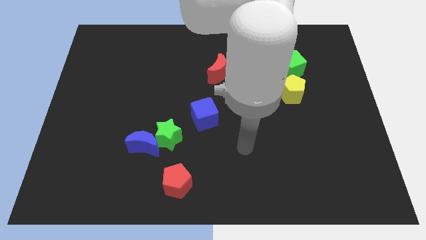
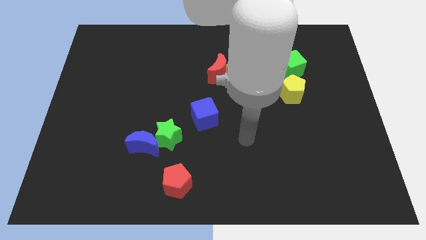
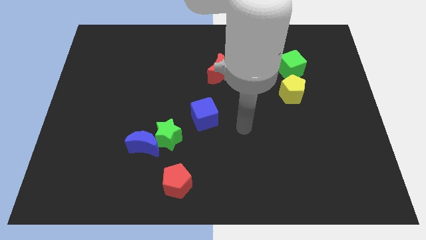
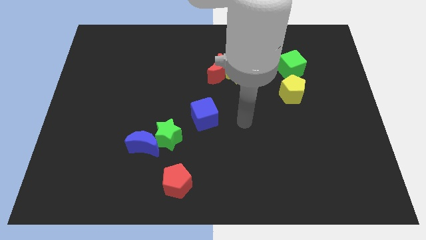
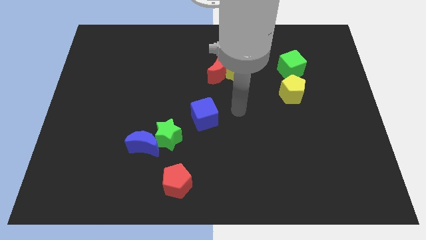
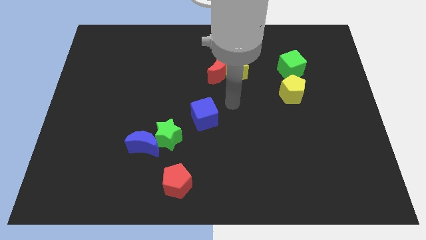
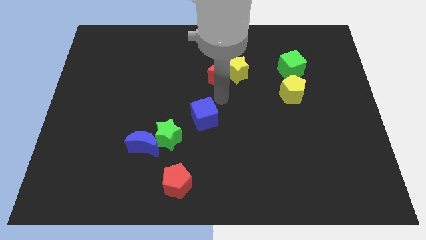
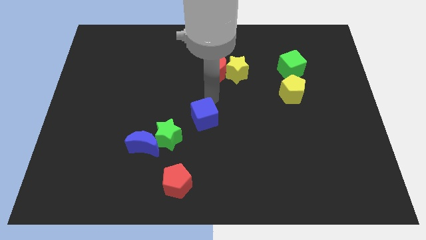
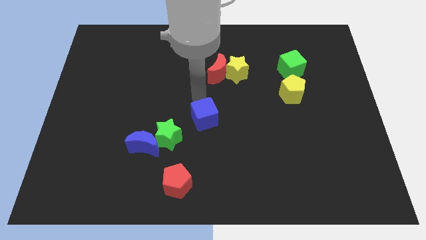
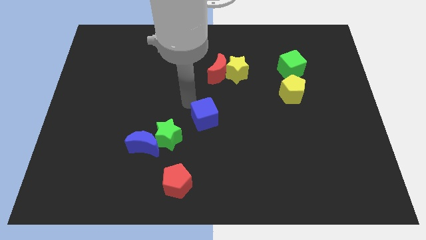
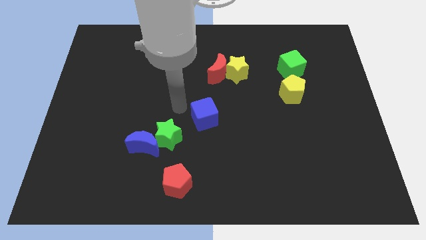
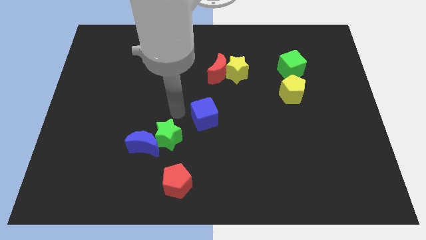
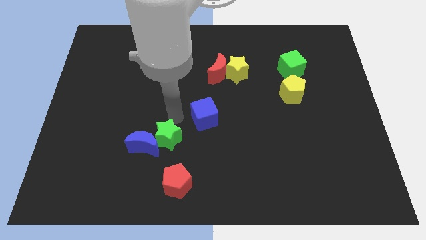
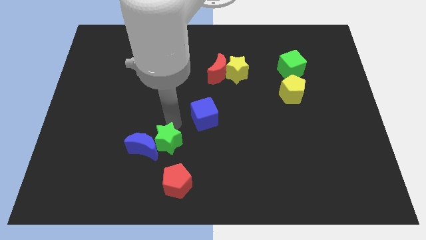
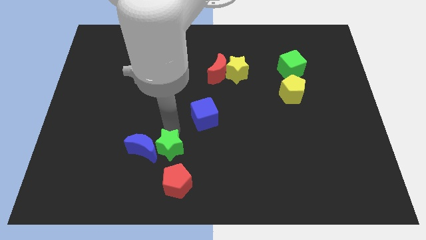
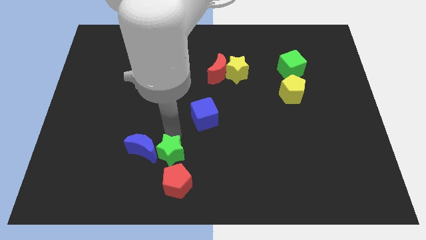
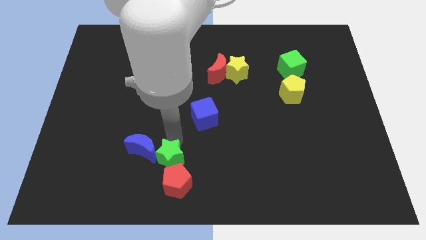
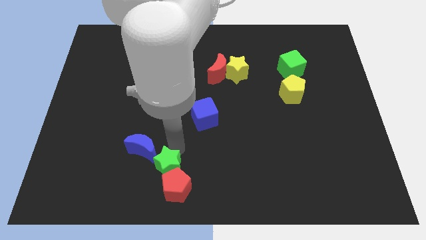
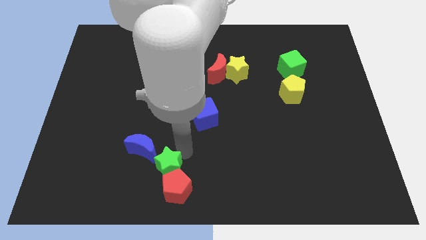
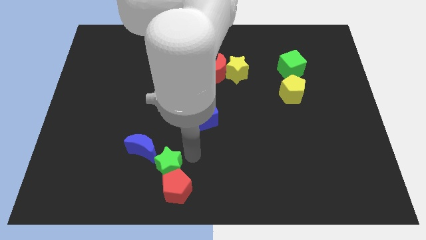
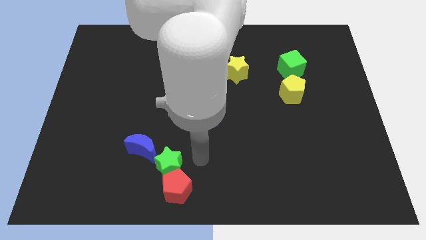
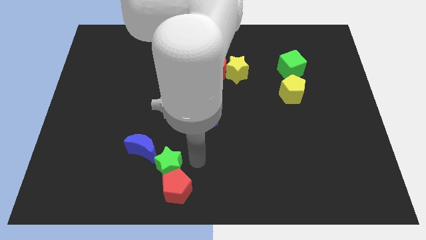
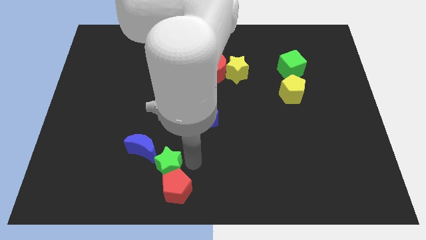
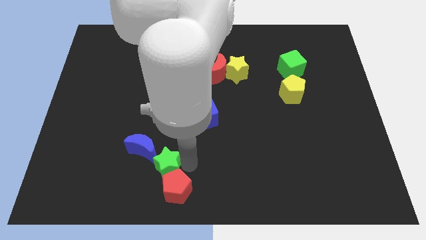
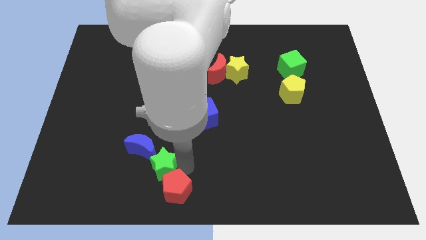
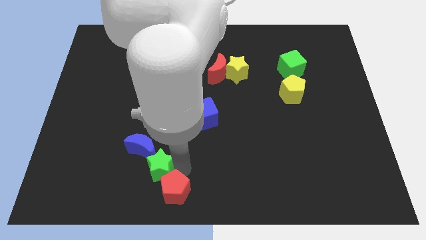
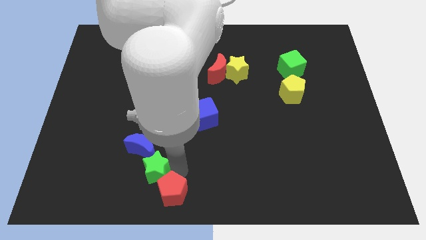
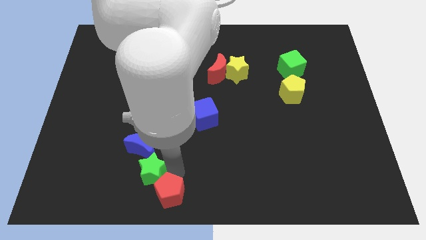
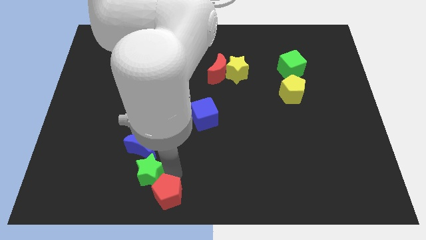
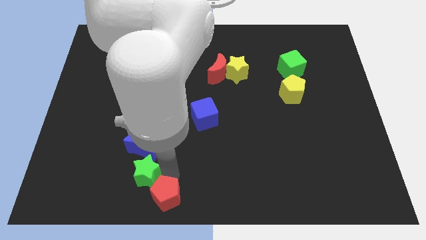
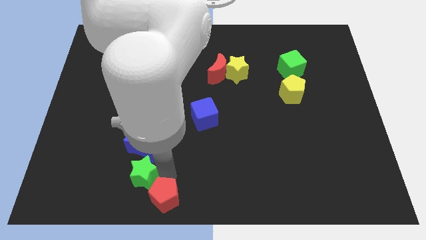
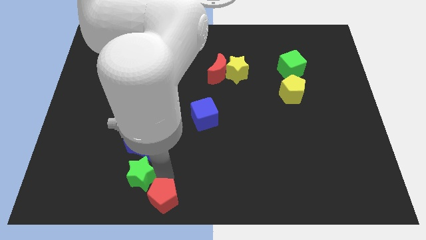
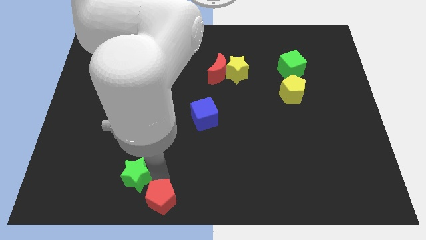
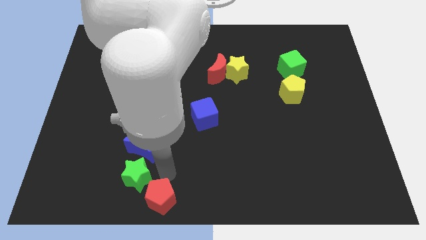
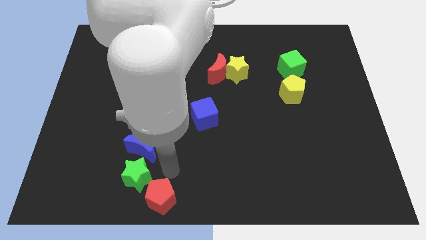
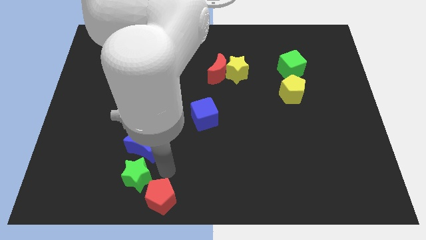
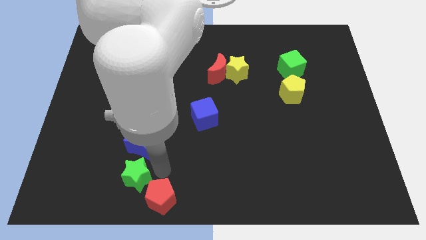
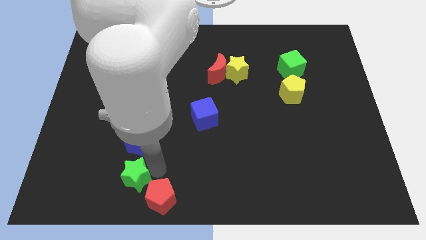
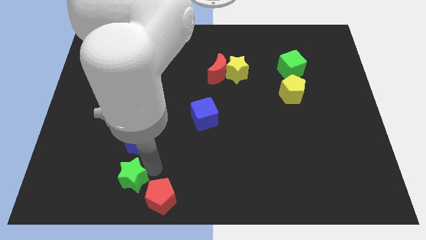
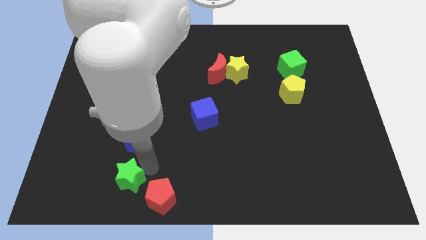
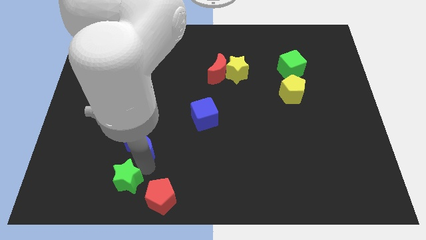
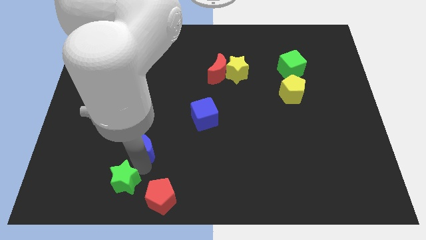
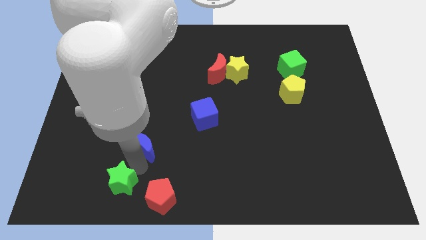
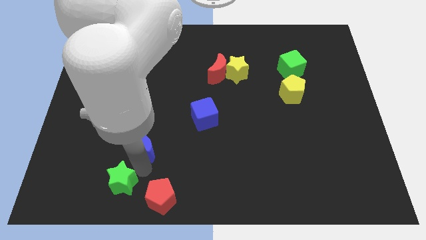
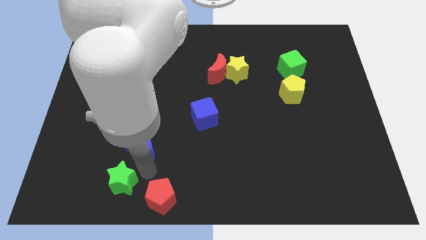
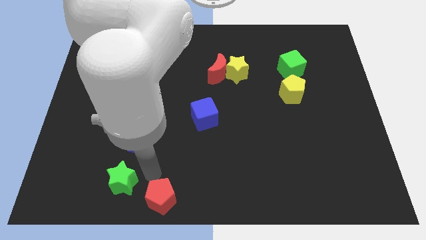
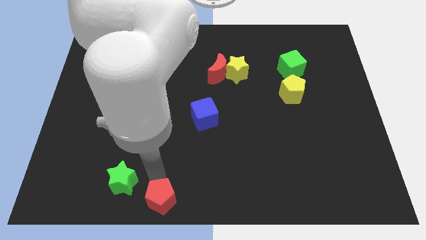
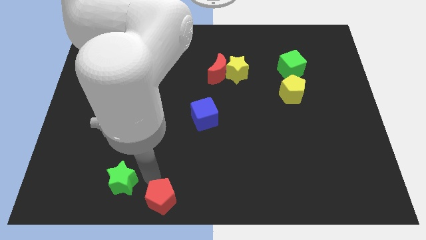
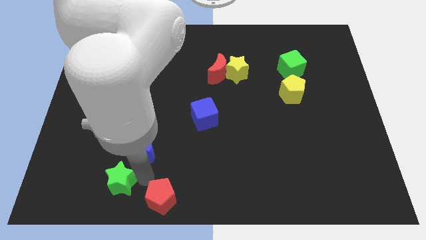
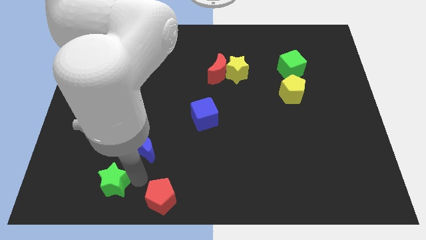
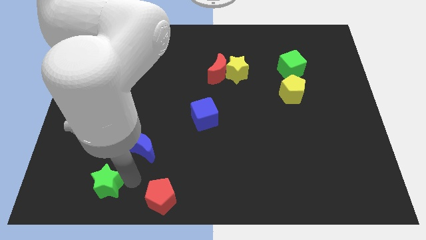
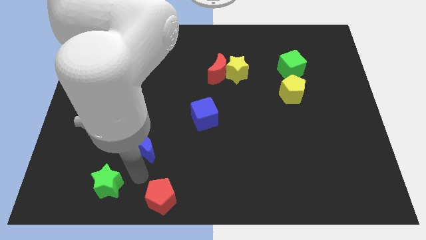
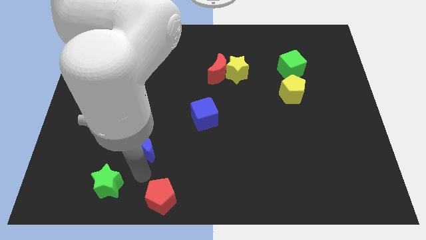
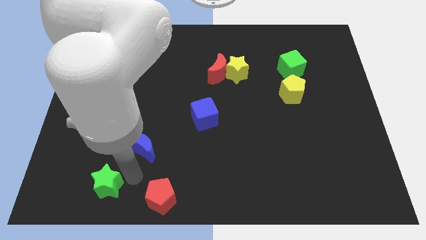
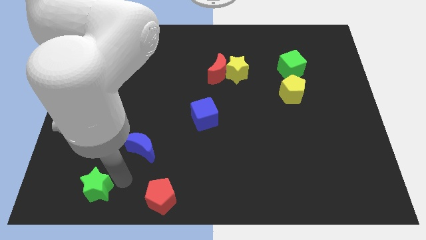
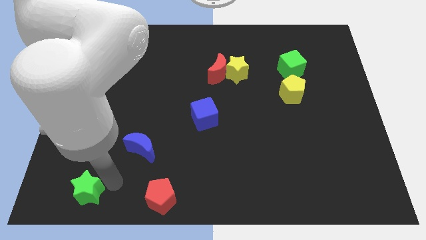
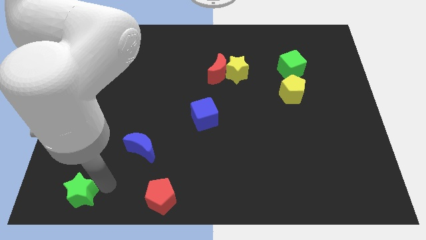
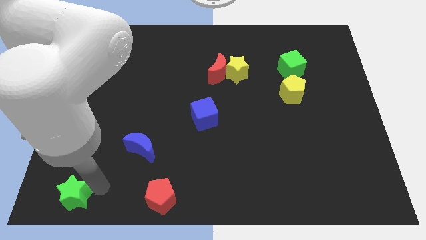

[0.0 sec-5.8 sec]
slide the green star to the lower left corner

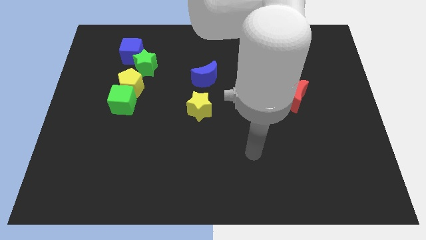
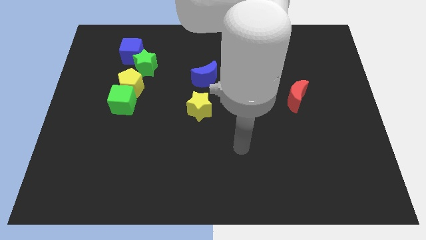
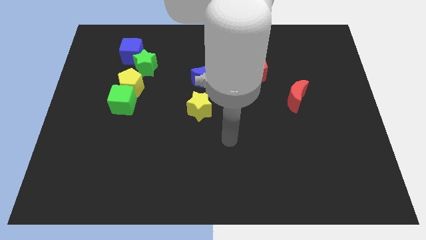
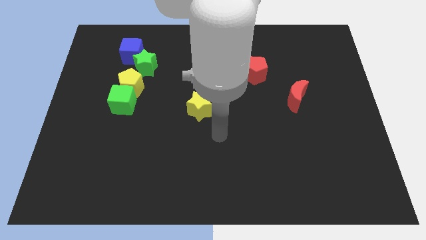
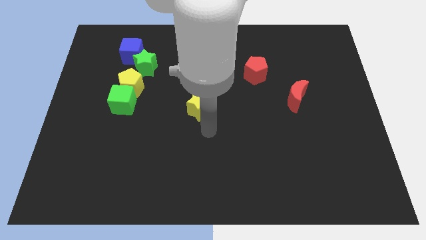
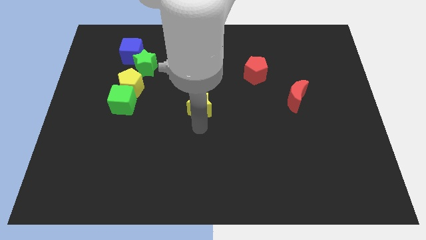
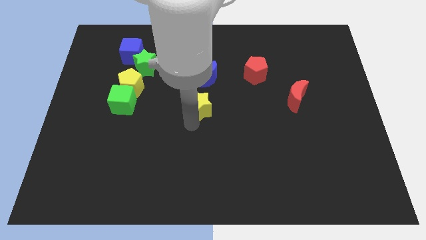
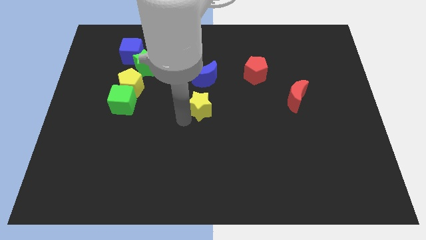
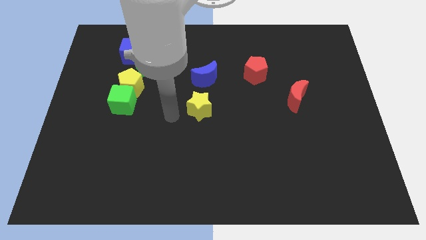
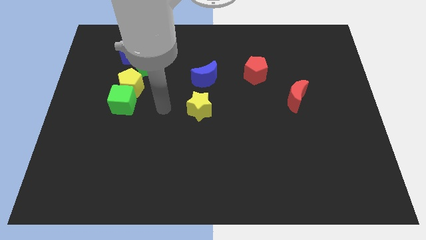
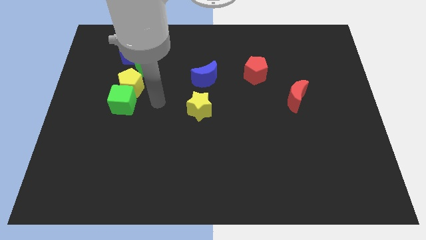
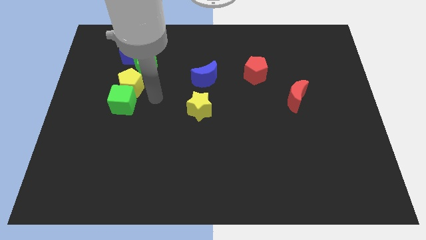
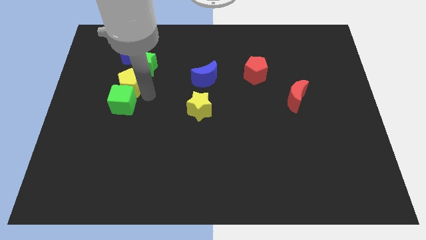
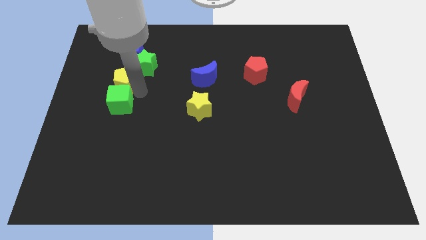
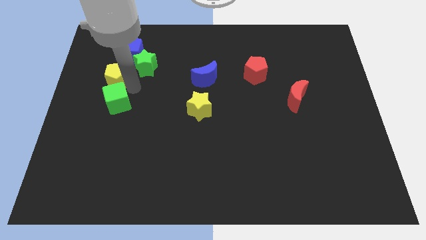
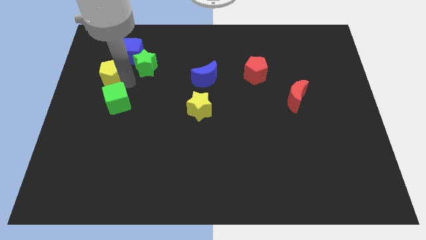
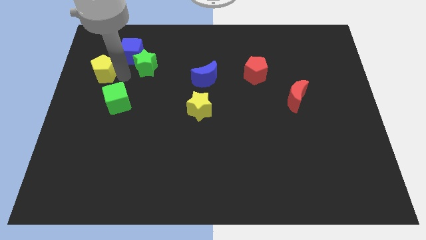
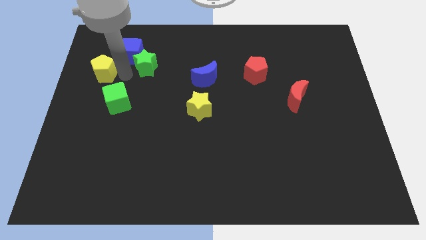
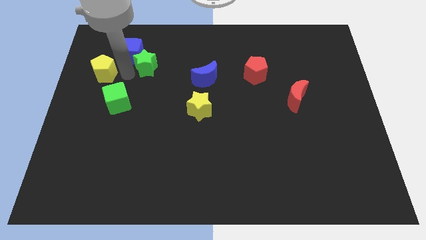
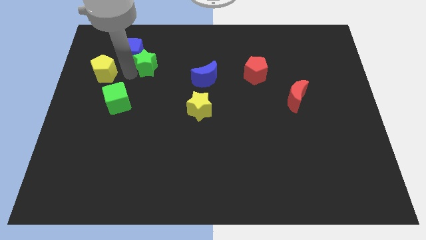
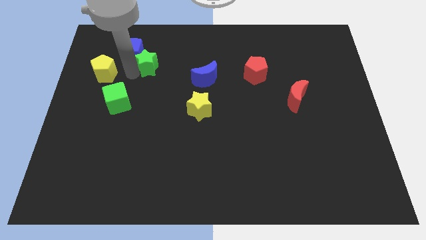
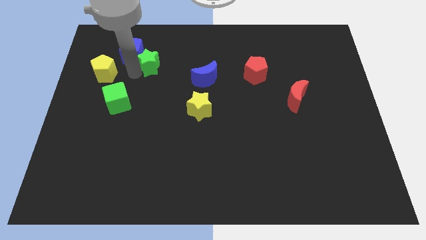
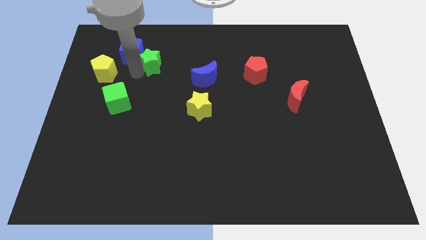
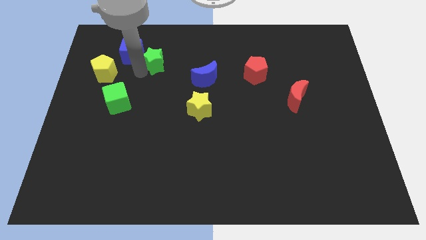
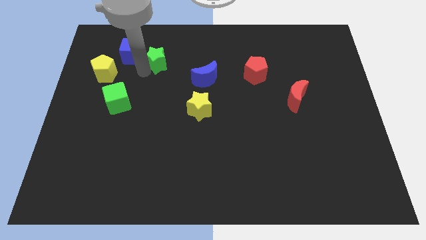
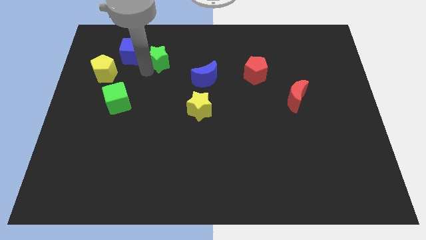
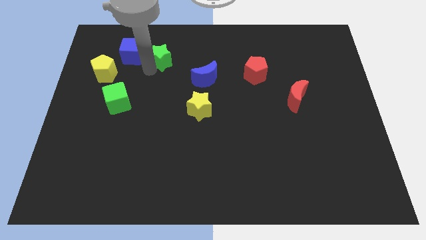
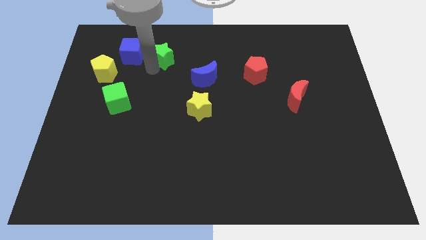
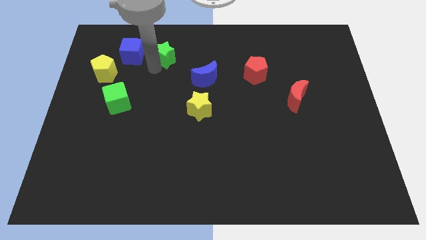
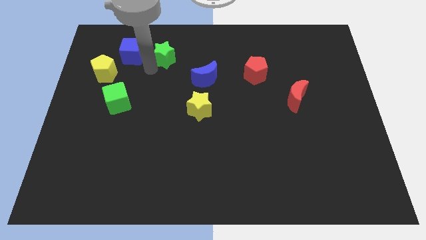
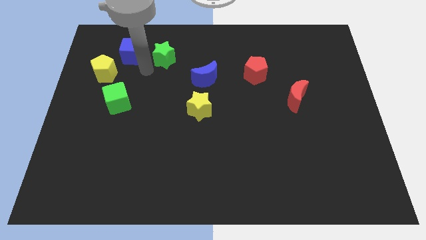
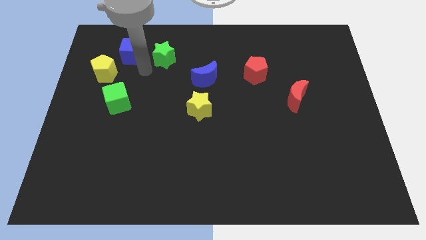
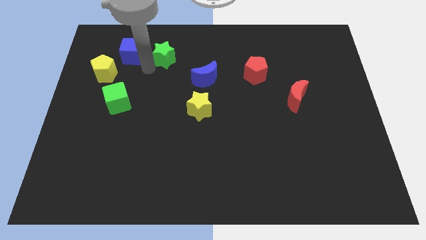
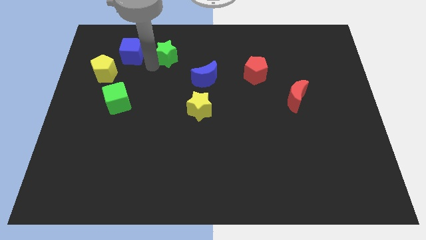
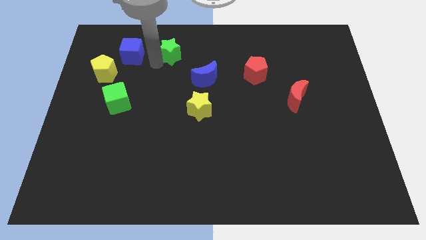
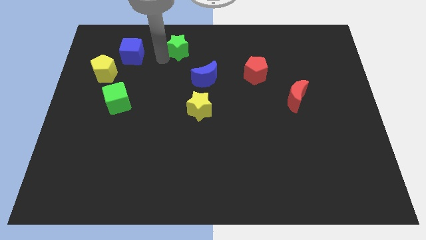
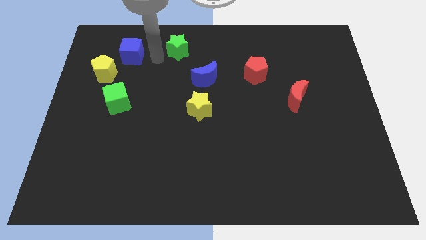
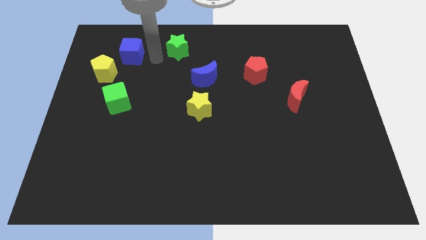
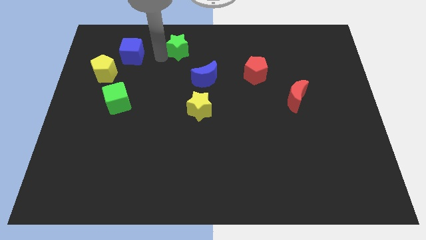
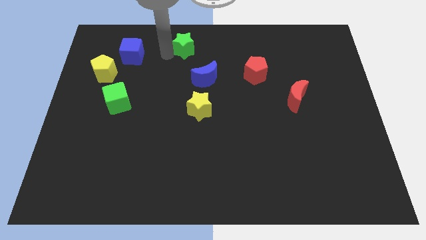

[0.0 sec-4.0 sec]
slide the green star to the top side
